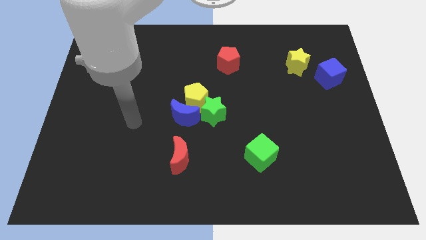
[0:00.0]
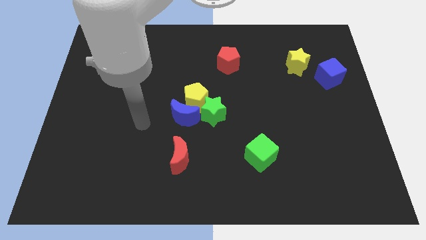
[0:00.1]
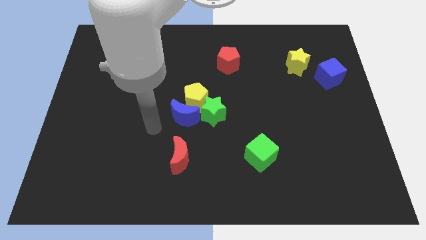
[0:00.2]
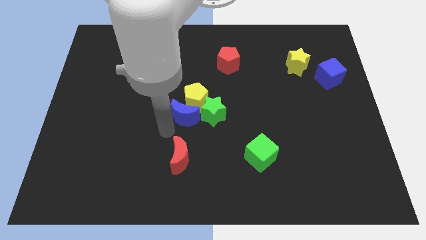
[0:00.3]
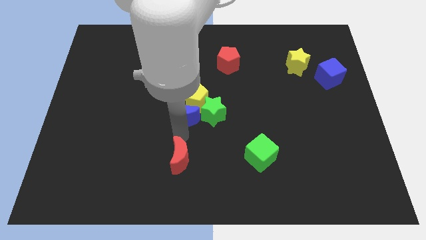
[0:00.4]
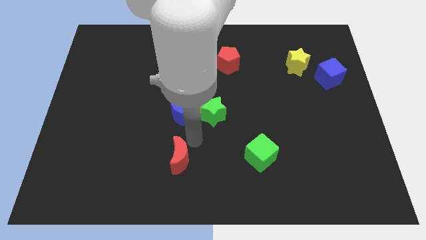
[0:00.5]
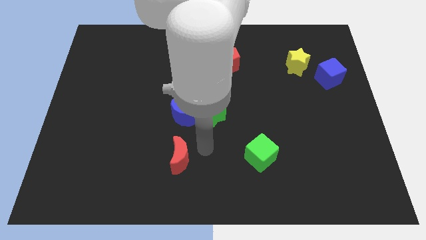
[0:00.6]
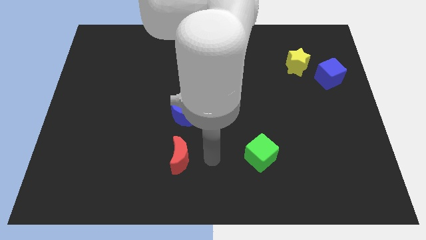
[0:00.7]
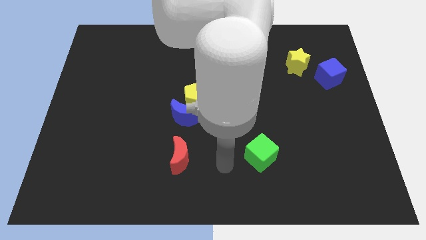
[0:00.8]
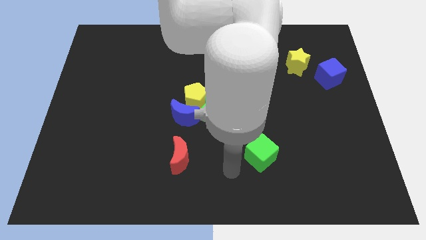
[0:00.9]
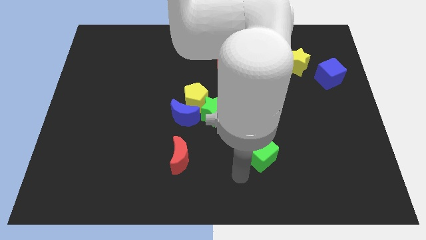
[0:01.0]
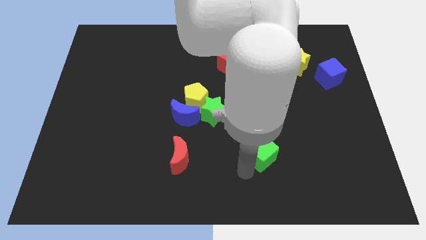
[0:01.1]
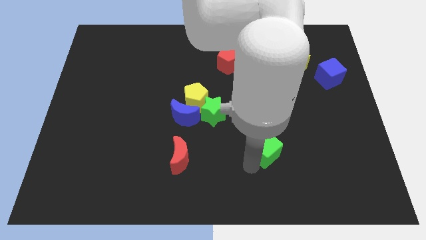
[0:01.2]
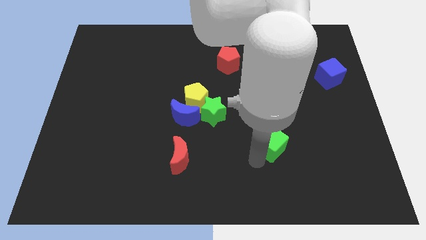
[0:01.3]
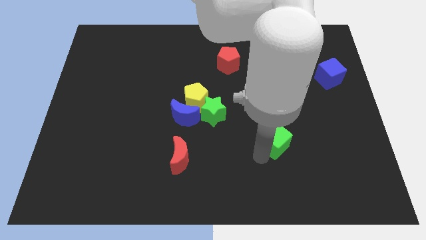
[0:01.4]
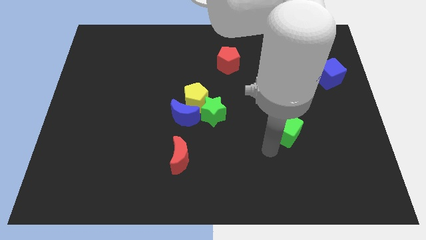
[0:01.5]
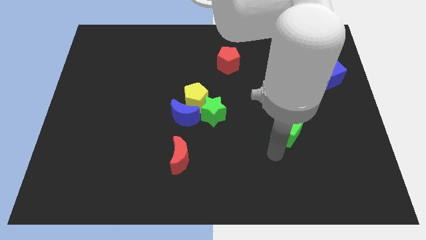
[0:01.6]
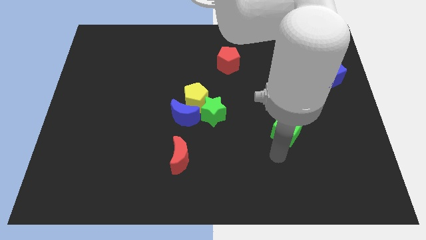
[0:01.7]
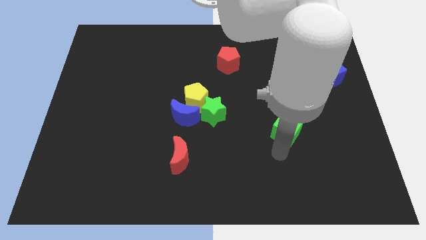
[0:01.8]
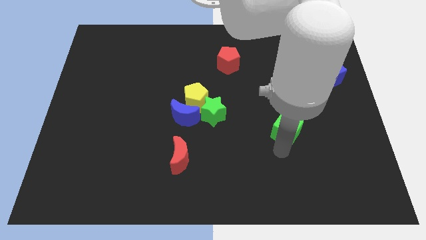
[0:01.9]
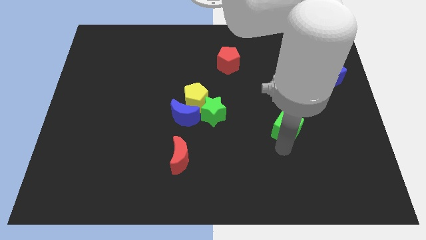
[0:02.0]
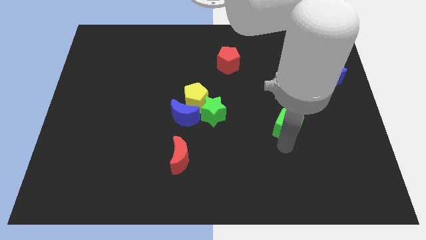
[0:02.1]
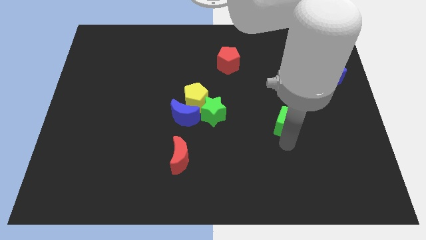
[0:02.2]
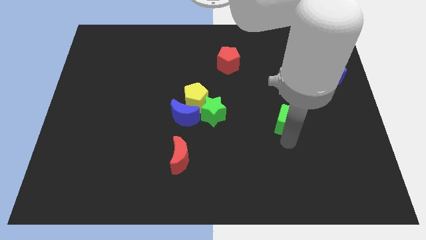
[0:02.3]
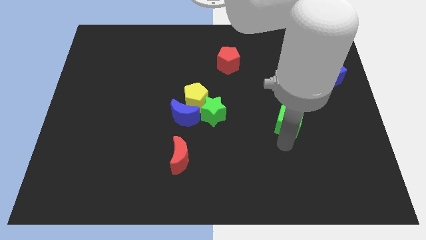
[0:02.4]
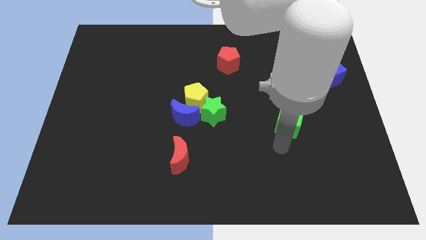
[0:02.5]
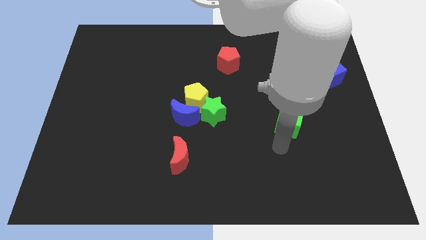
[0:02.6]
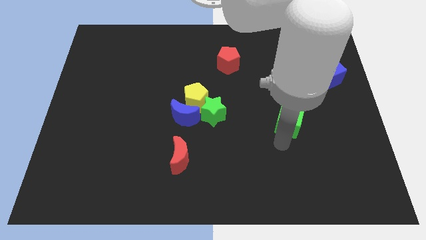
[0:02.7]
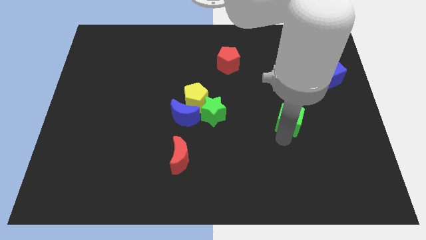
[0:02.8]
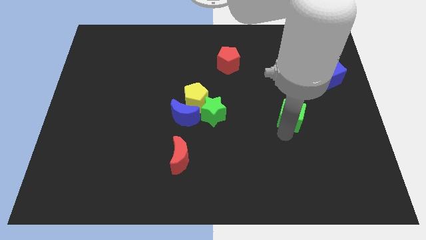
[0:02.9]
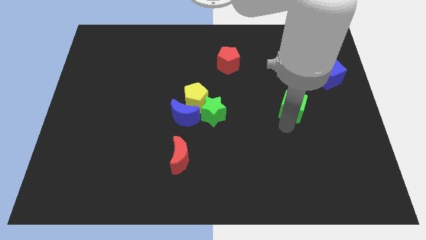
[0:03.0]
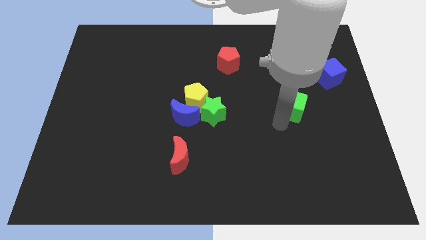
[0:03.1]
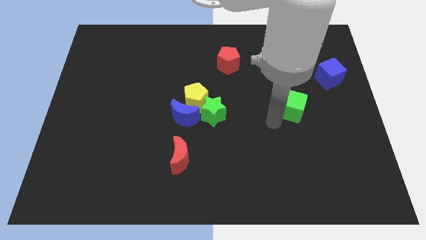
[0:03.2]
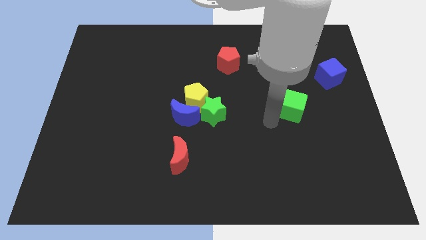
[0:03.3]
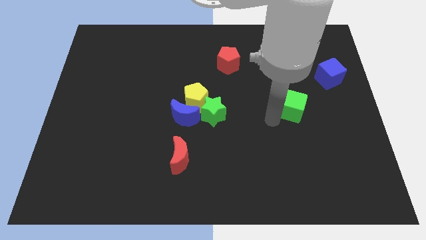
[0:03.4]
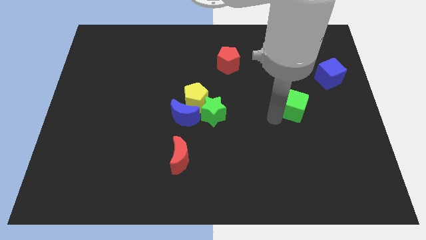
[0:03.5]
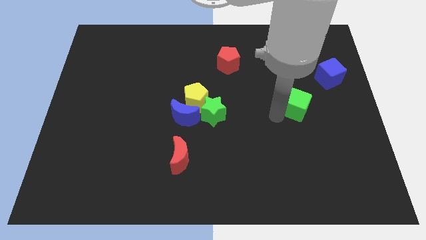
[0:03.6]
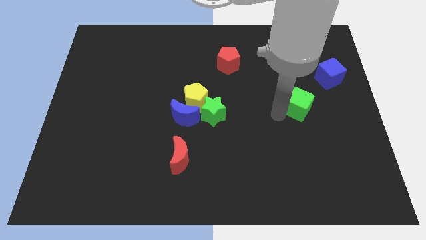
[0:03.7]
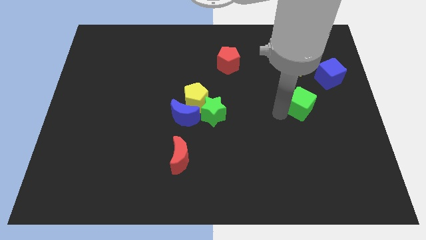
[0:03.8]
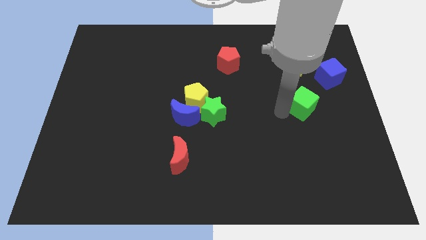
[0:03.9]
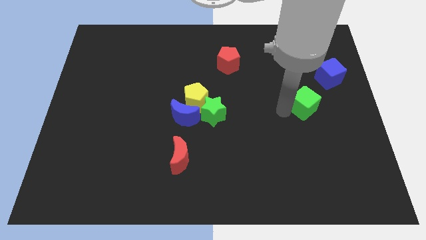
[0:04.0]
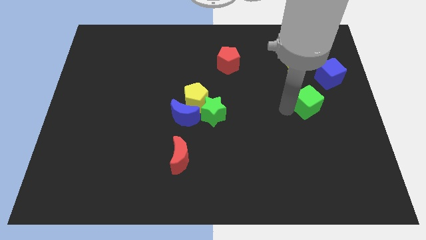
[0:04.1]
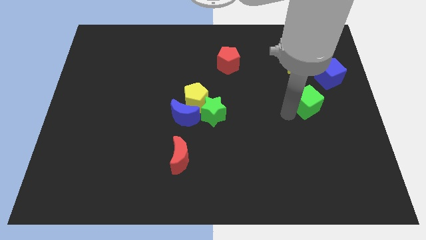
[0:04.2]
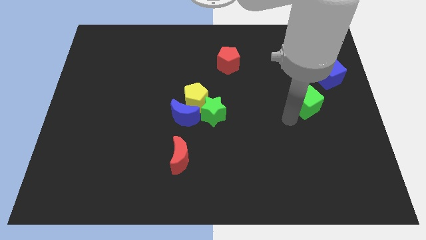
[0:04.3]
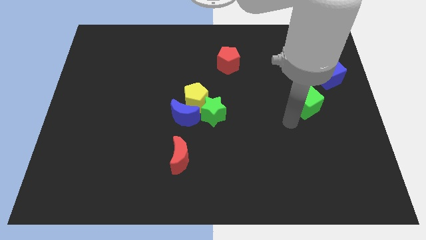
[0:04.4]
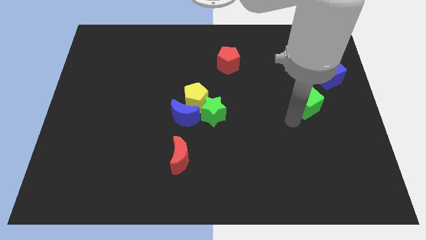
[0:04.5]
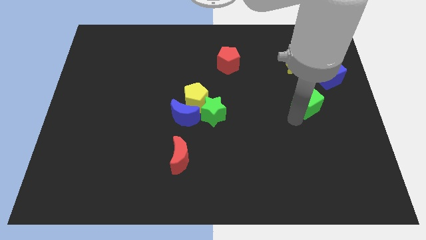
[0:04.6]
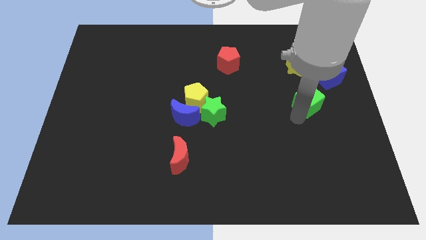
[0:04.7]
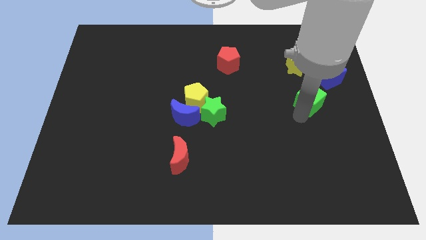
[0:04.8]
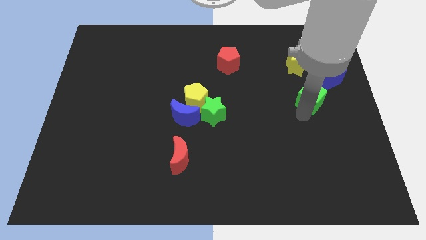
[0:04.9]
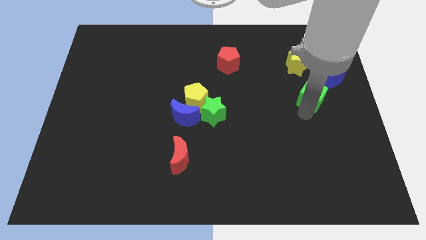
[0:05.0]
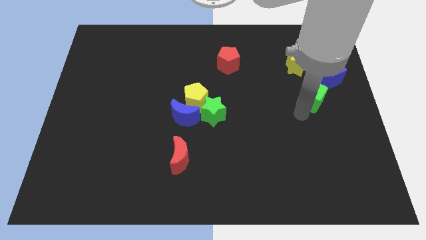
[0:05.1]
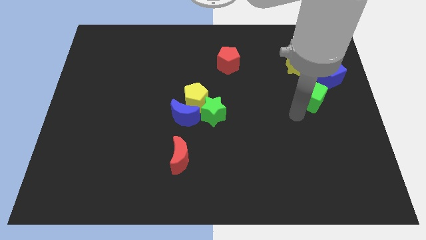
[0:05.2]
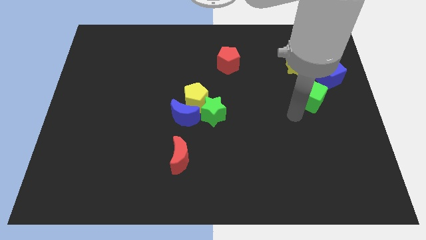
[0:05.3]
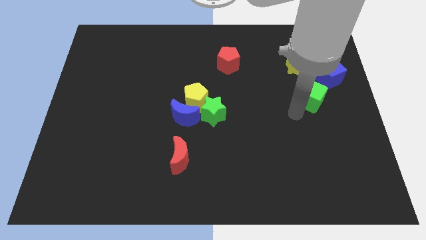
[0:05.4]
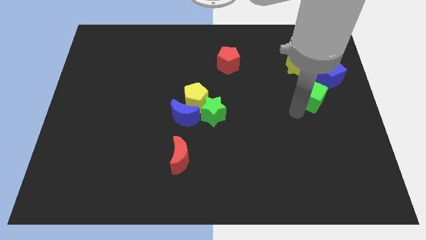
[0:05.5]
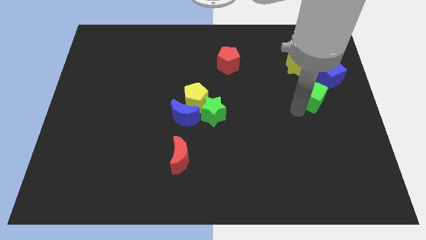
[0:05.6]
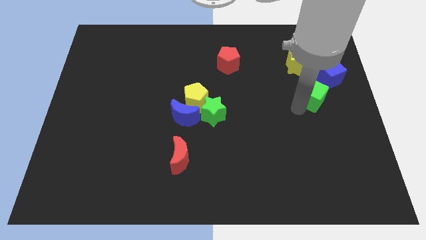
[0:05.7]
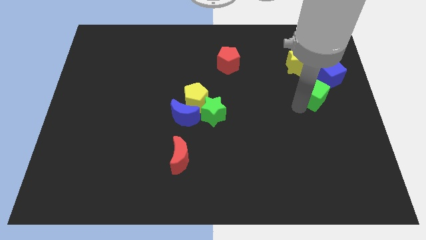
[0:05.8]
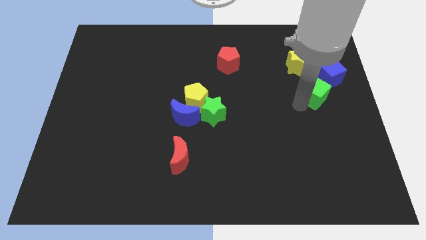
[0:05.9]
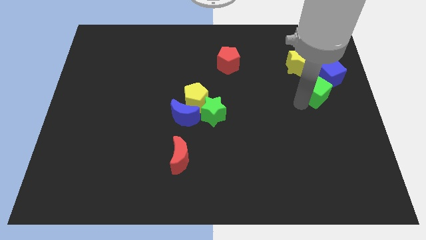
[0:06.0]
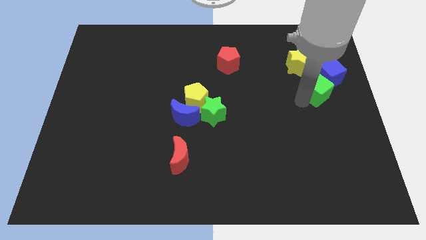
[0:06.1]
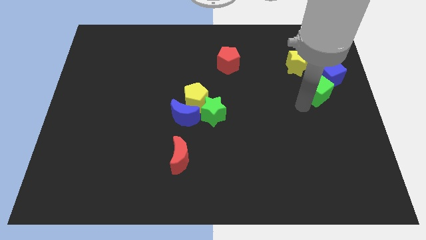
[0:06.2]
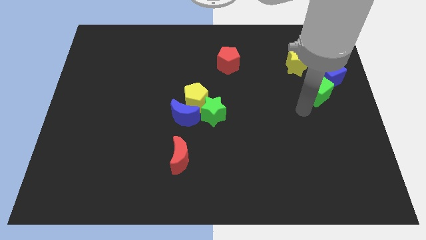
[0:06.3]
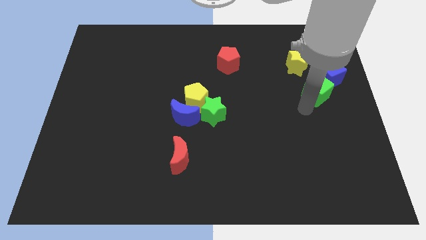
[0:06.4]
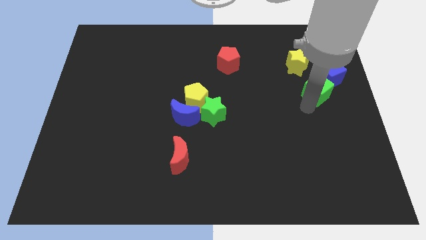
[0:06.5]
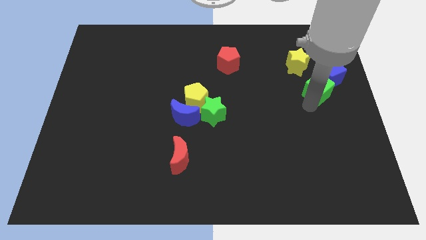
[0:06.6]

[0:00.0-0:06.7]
push the green cube next to the blue cube

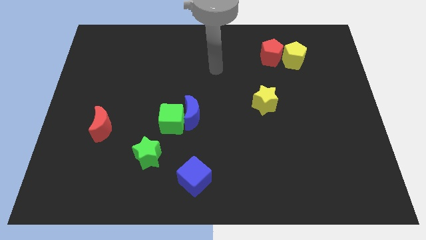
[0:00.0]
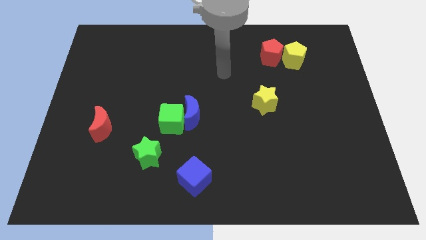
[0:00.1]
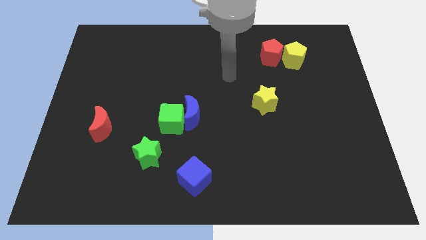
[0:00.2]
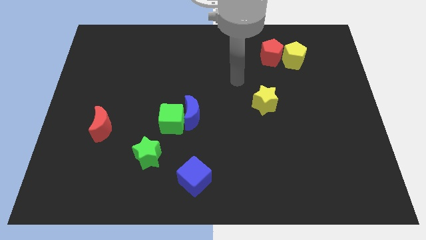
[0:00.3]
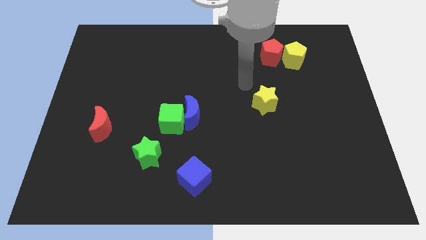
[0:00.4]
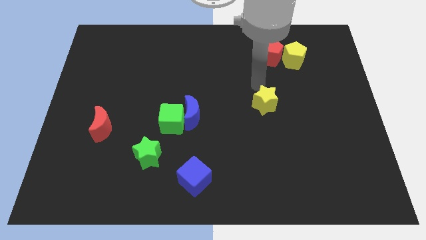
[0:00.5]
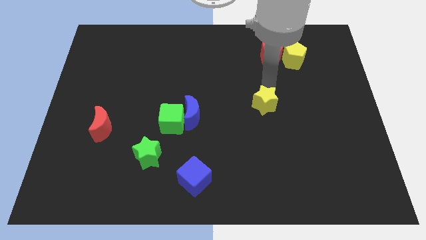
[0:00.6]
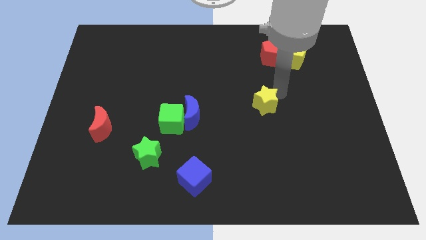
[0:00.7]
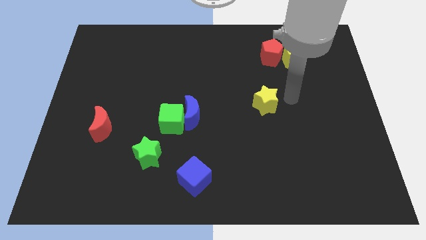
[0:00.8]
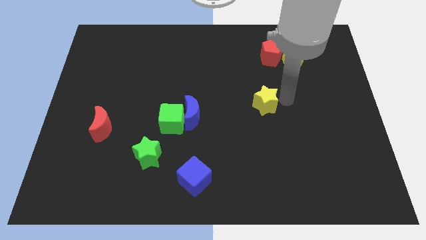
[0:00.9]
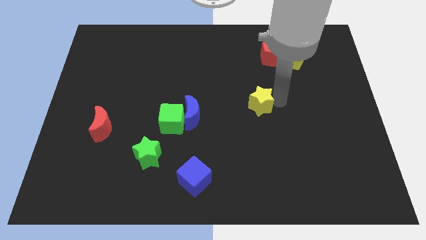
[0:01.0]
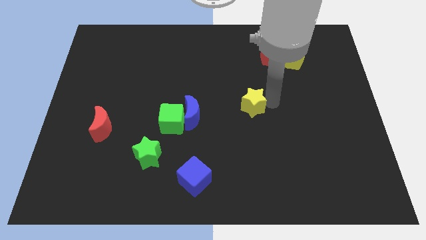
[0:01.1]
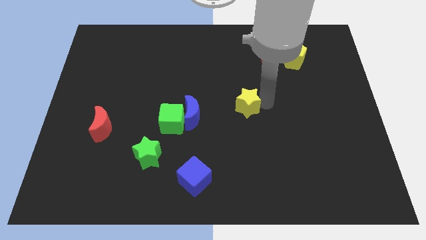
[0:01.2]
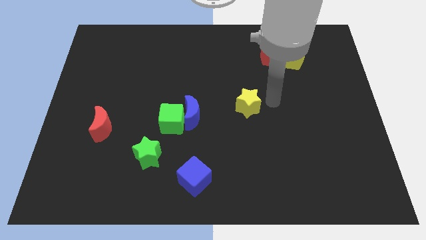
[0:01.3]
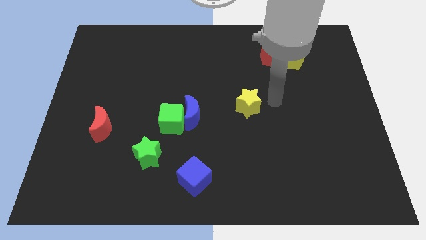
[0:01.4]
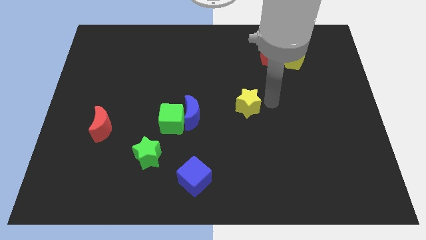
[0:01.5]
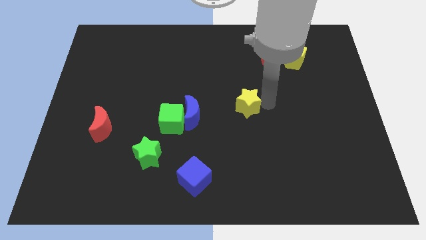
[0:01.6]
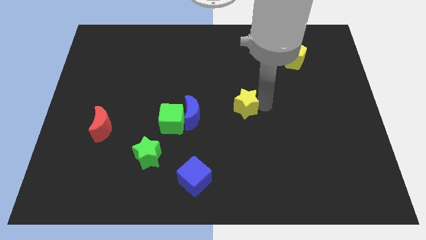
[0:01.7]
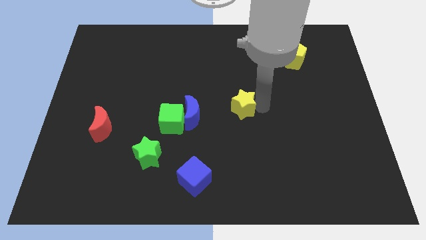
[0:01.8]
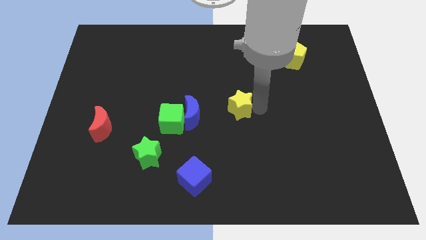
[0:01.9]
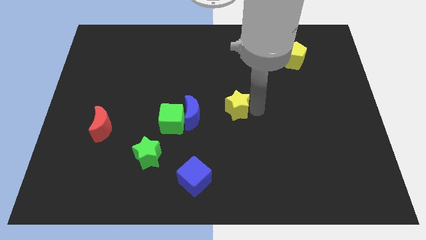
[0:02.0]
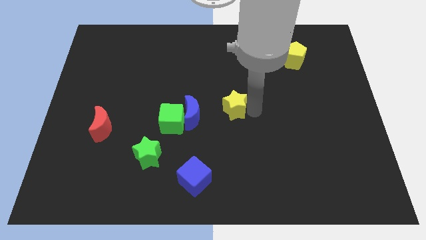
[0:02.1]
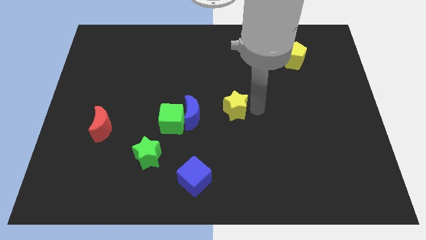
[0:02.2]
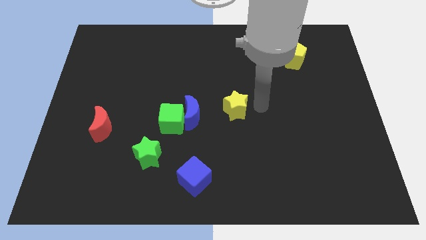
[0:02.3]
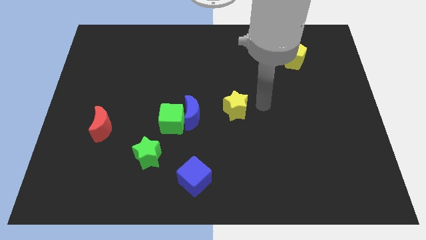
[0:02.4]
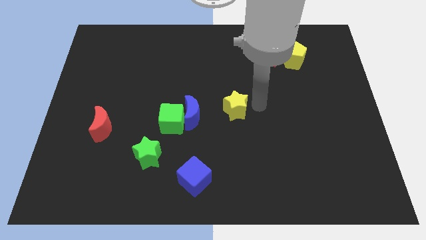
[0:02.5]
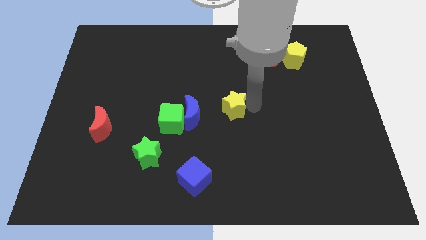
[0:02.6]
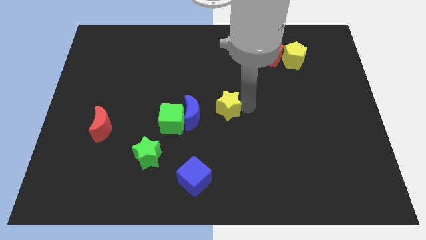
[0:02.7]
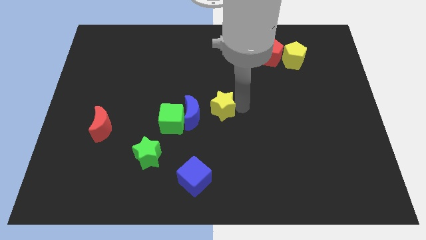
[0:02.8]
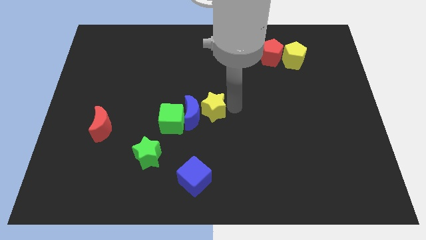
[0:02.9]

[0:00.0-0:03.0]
slide the yellow star close to the blue moon
